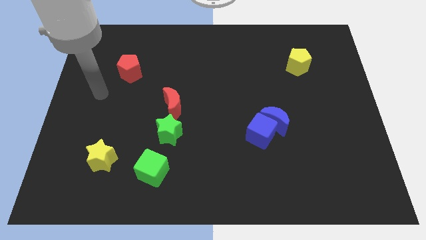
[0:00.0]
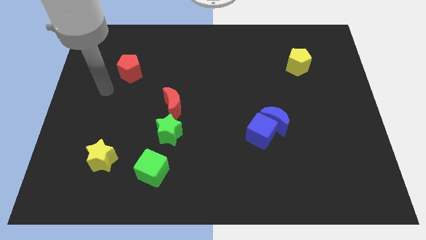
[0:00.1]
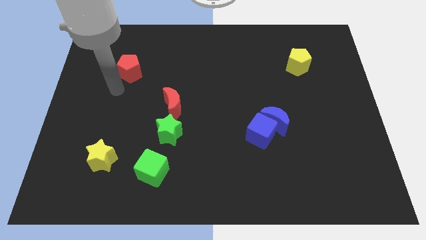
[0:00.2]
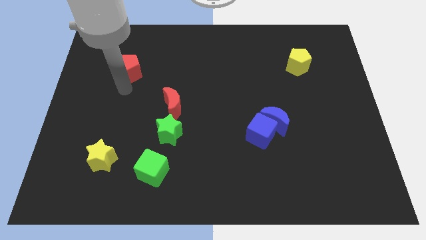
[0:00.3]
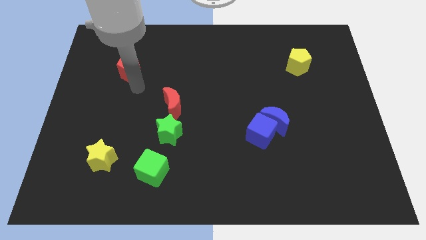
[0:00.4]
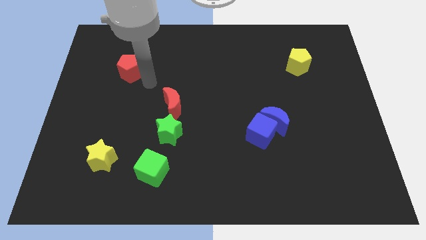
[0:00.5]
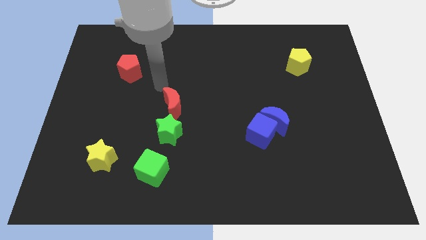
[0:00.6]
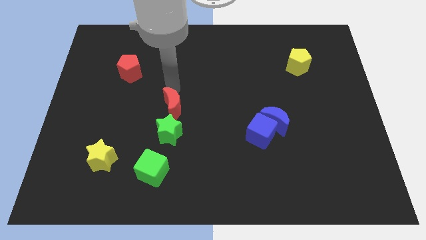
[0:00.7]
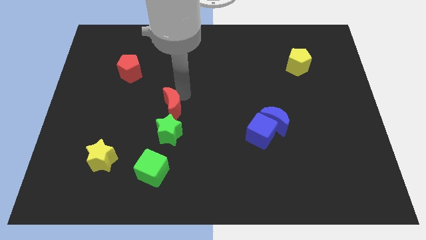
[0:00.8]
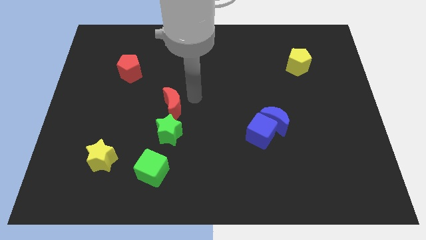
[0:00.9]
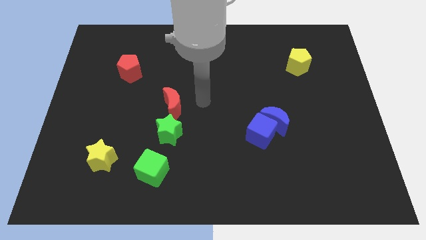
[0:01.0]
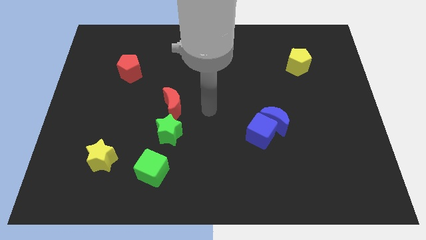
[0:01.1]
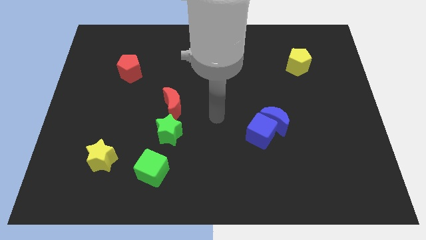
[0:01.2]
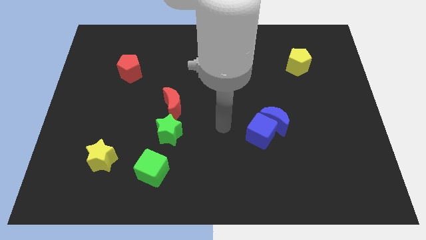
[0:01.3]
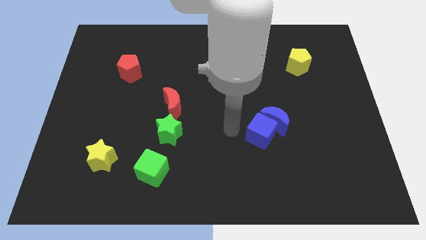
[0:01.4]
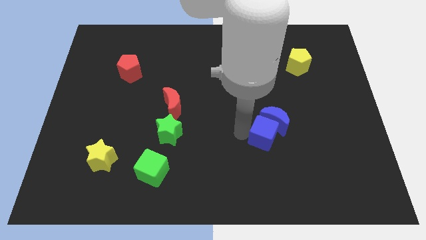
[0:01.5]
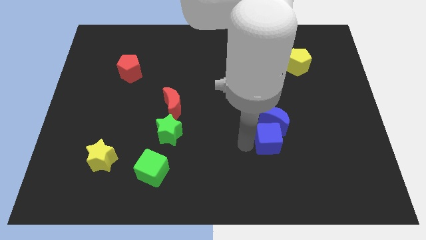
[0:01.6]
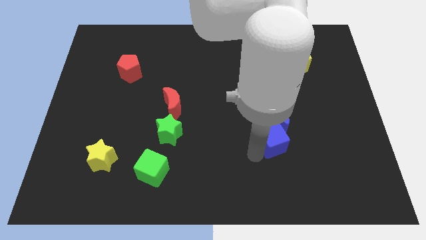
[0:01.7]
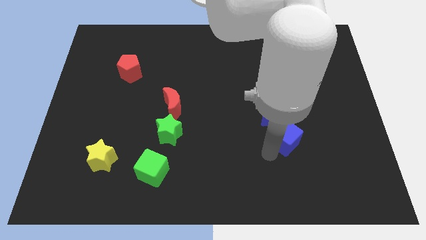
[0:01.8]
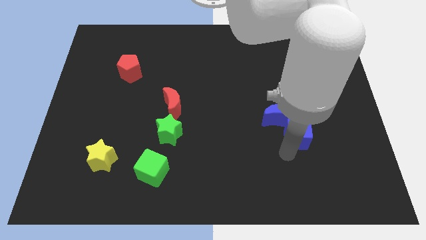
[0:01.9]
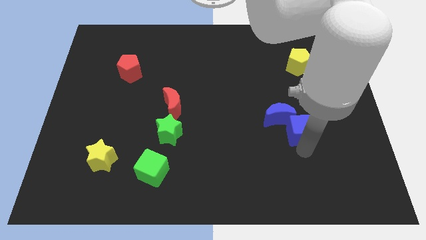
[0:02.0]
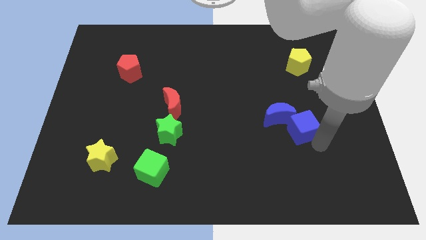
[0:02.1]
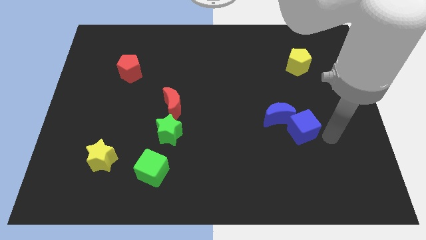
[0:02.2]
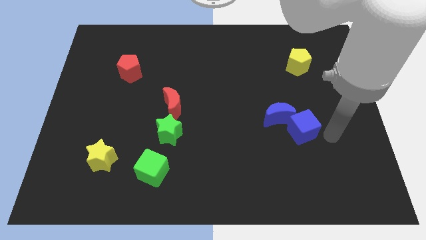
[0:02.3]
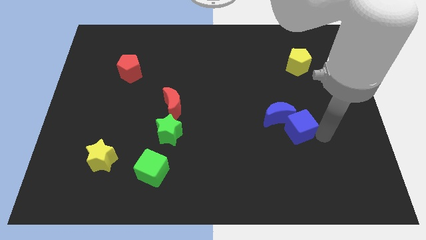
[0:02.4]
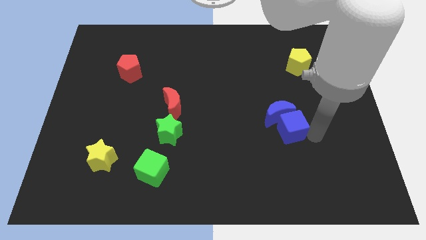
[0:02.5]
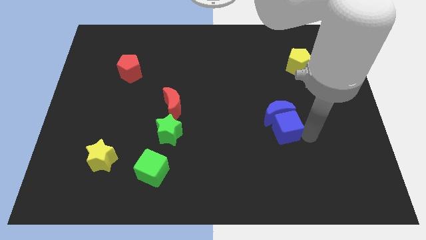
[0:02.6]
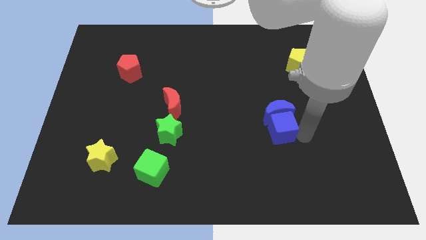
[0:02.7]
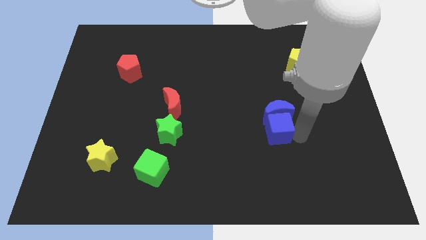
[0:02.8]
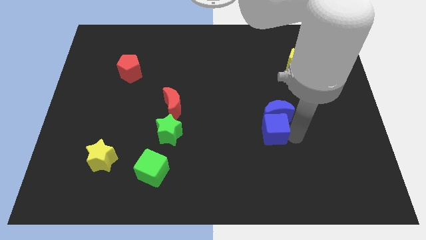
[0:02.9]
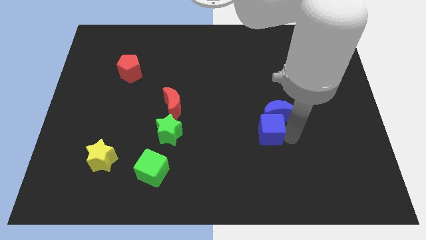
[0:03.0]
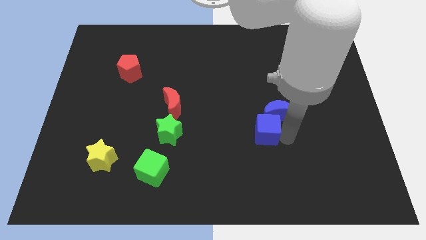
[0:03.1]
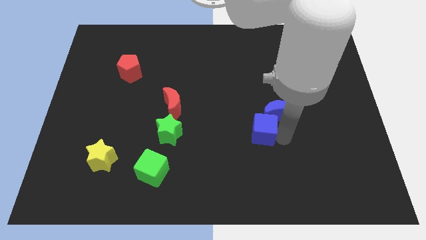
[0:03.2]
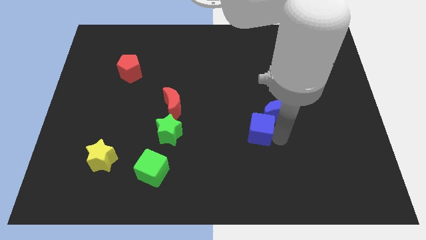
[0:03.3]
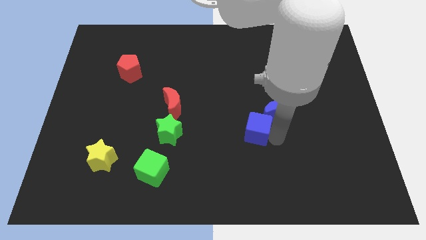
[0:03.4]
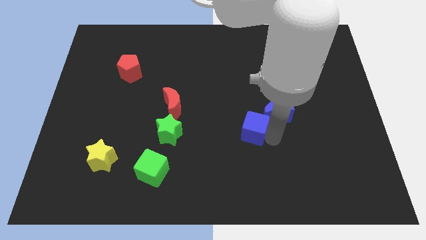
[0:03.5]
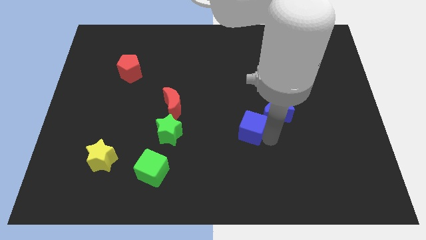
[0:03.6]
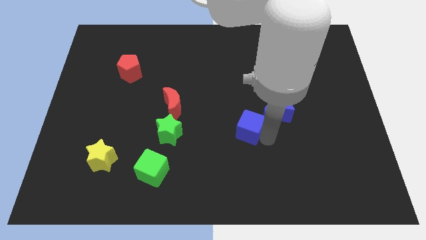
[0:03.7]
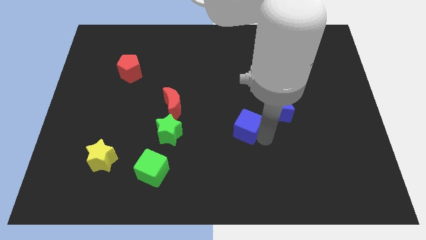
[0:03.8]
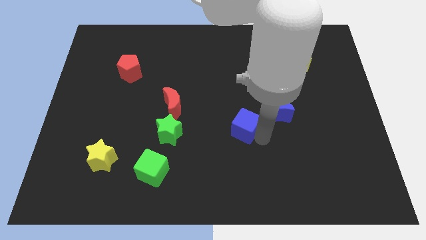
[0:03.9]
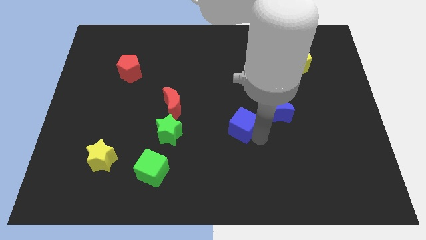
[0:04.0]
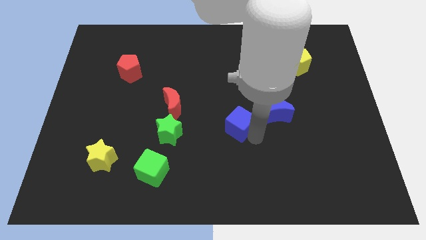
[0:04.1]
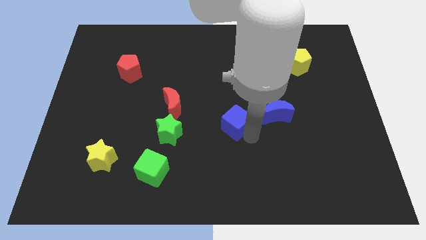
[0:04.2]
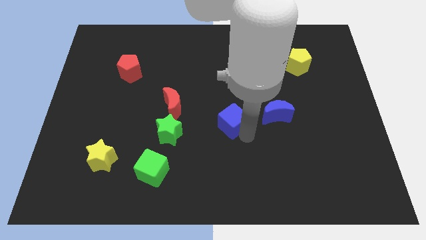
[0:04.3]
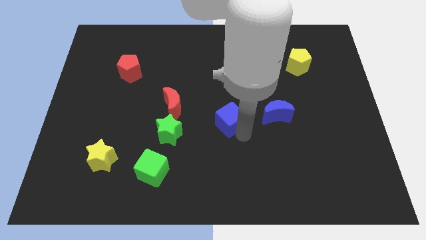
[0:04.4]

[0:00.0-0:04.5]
slightly move the blue cube up and to the left

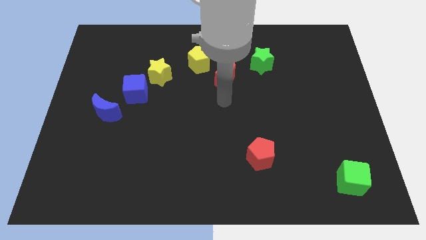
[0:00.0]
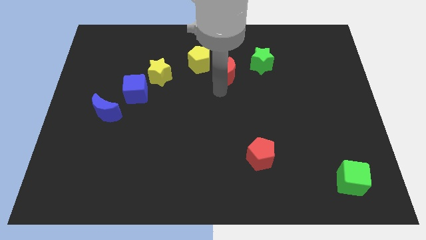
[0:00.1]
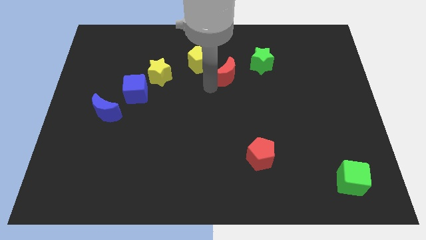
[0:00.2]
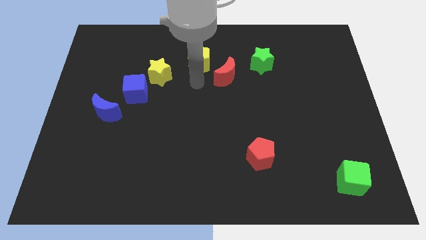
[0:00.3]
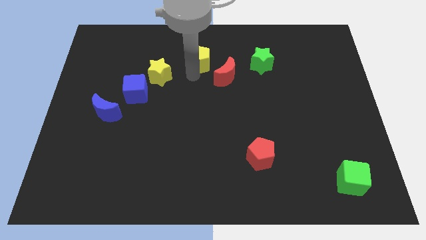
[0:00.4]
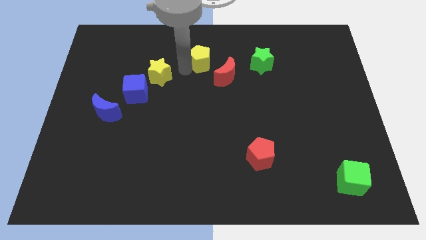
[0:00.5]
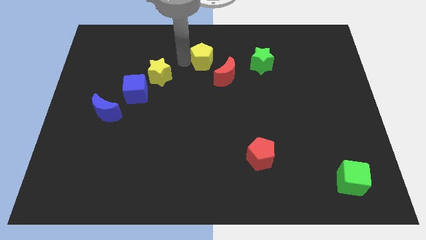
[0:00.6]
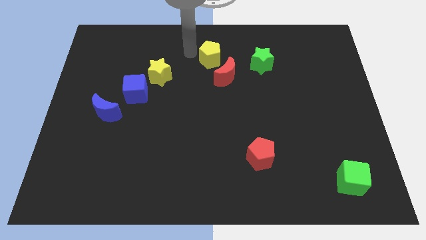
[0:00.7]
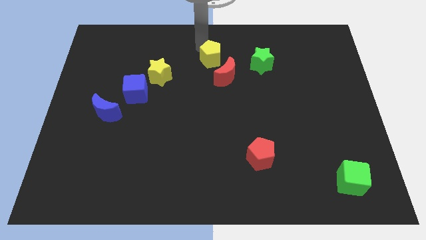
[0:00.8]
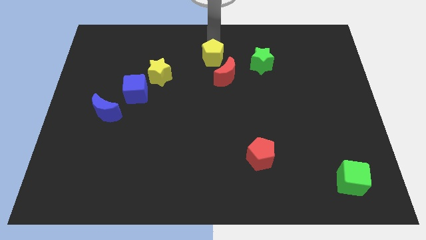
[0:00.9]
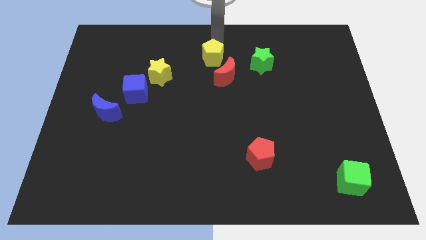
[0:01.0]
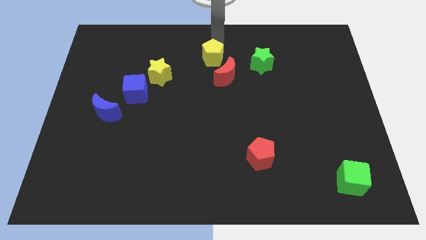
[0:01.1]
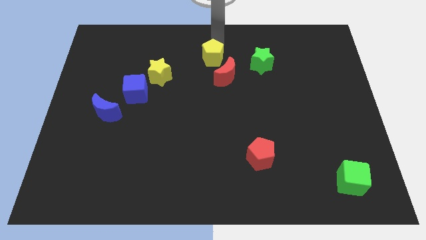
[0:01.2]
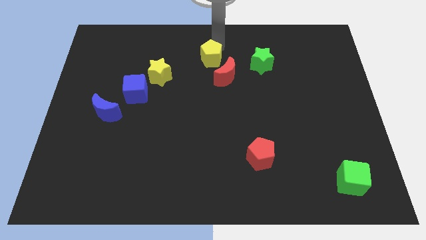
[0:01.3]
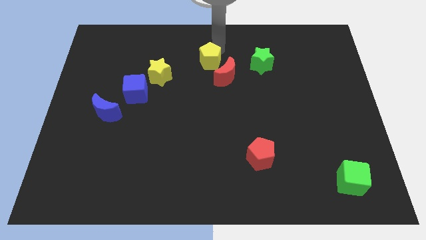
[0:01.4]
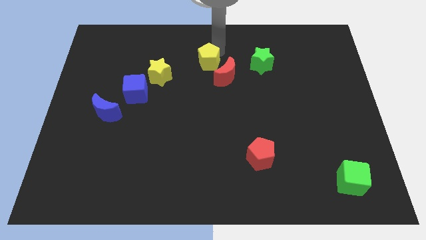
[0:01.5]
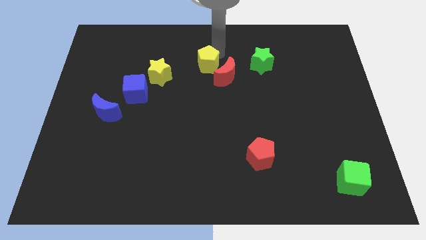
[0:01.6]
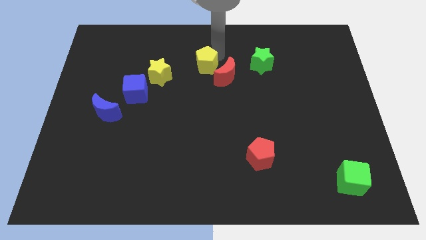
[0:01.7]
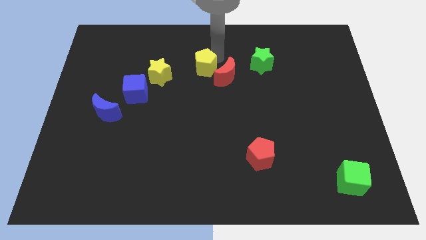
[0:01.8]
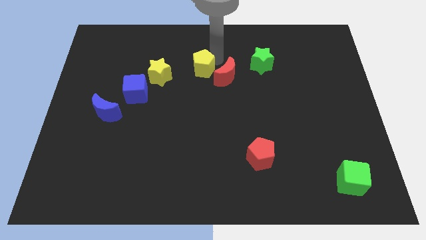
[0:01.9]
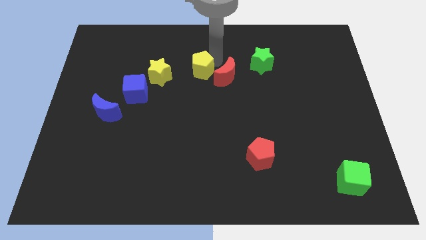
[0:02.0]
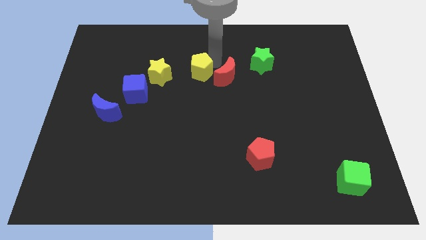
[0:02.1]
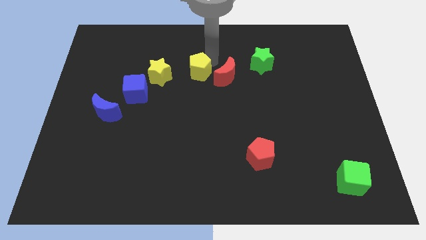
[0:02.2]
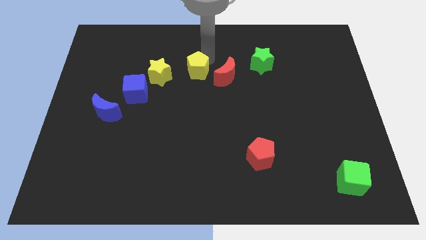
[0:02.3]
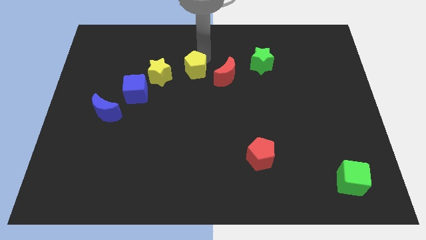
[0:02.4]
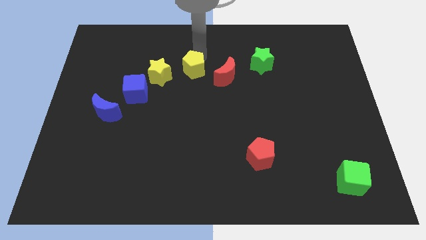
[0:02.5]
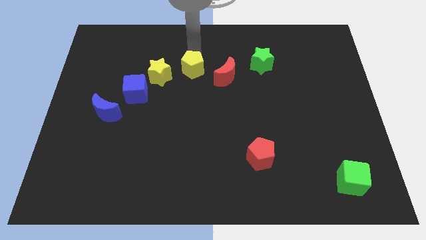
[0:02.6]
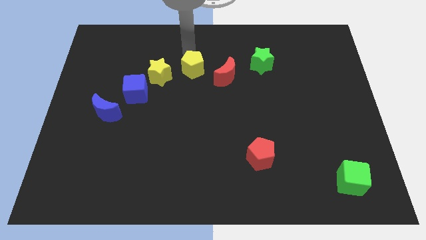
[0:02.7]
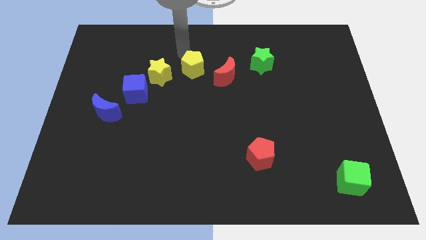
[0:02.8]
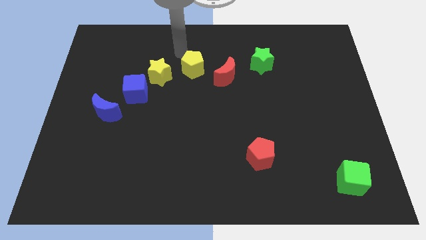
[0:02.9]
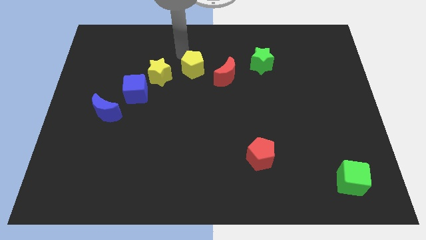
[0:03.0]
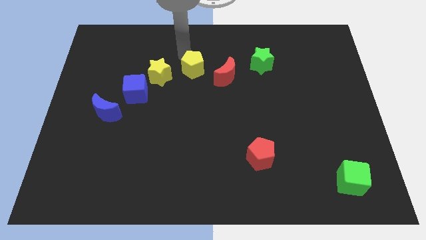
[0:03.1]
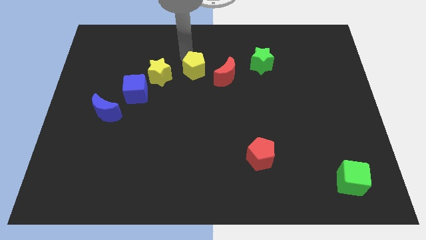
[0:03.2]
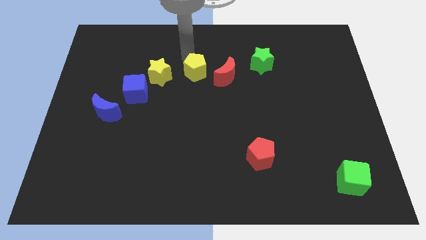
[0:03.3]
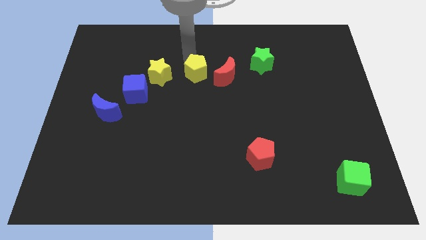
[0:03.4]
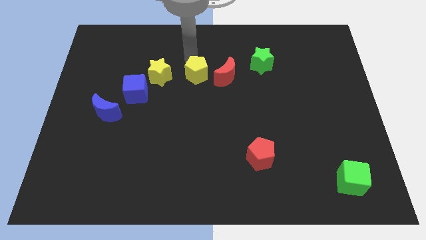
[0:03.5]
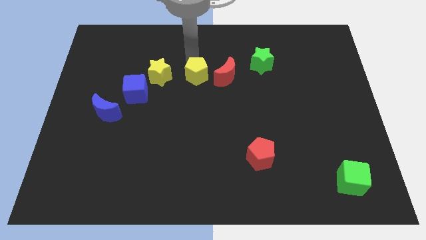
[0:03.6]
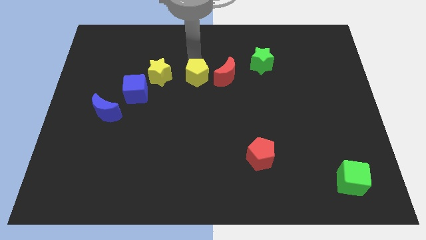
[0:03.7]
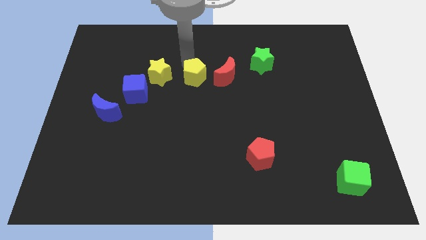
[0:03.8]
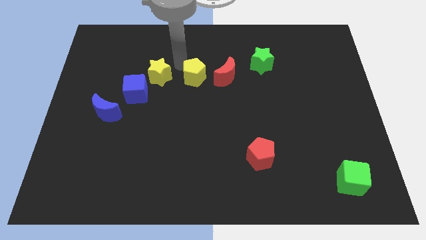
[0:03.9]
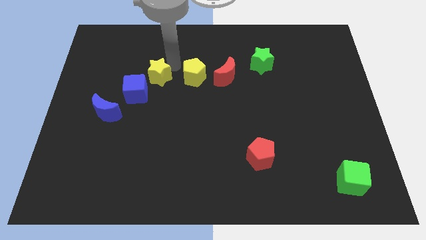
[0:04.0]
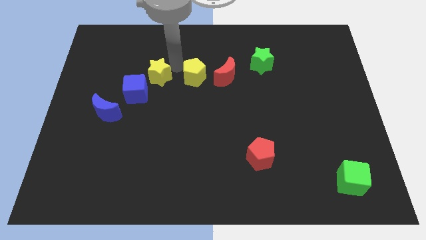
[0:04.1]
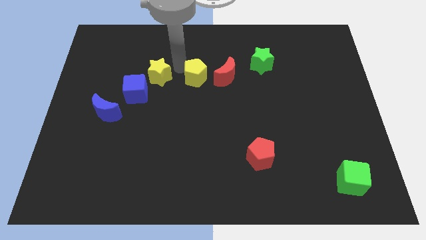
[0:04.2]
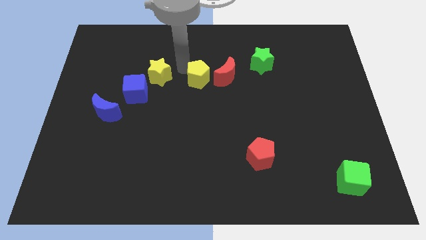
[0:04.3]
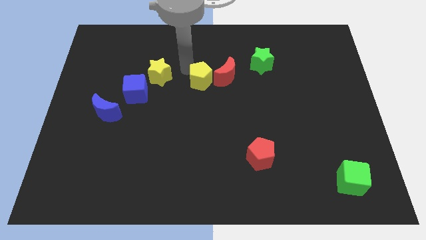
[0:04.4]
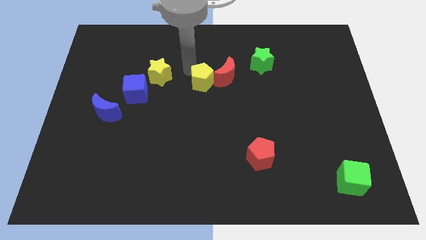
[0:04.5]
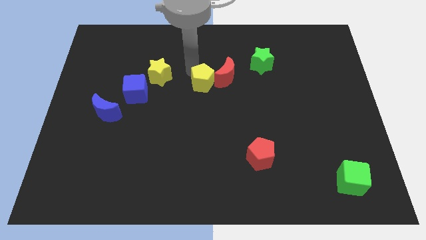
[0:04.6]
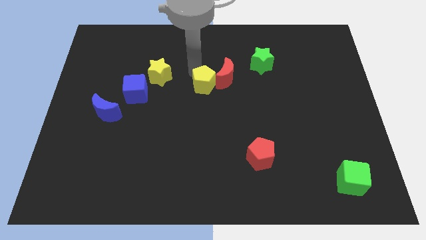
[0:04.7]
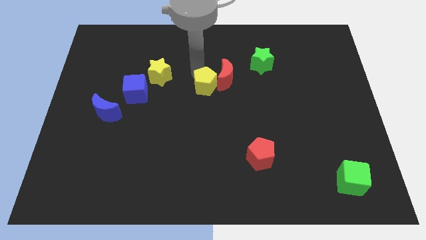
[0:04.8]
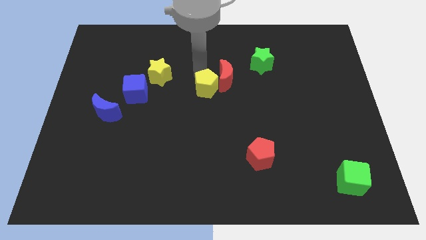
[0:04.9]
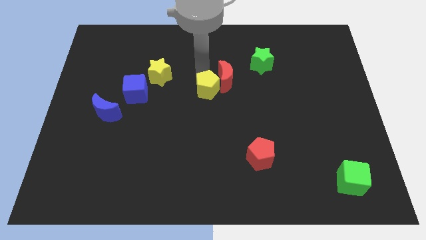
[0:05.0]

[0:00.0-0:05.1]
slightly slide the yellow pentagon downwards and right
